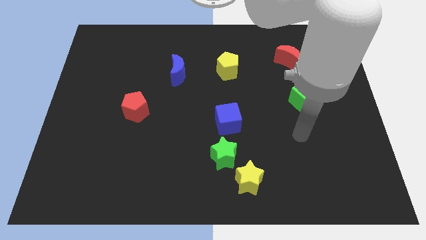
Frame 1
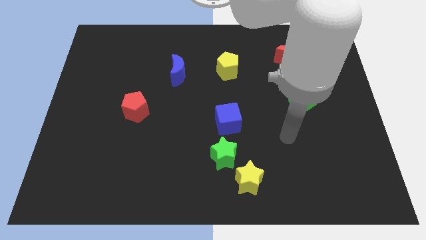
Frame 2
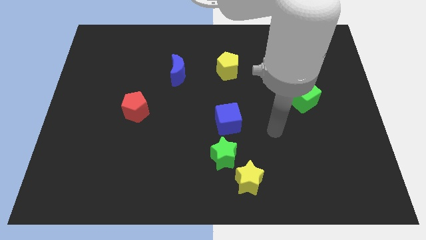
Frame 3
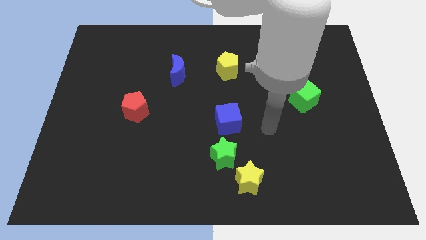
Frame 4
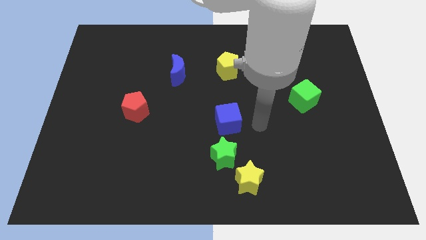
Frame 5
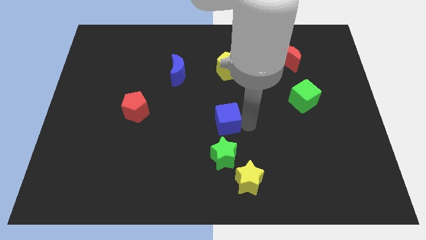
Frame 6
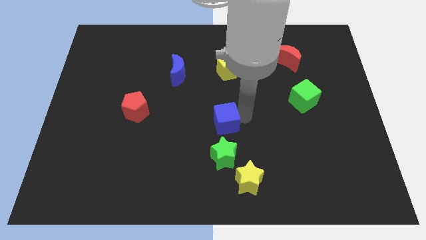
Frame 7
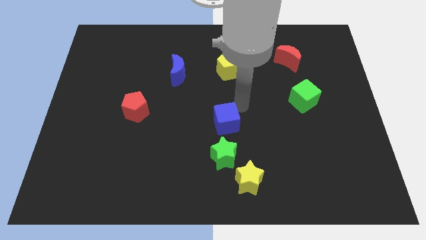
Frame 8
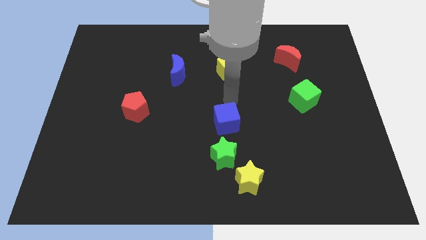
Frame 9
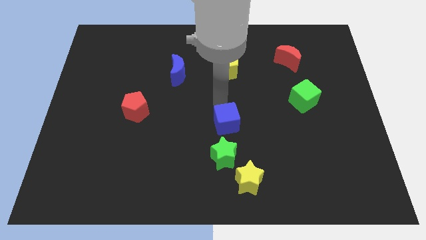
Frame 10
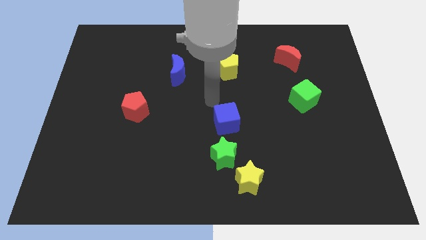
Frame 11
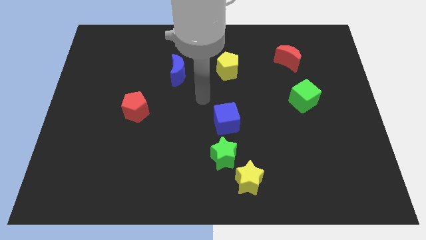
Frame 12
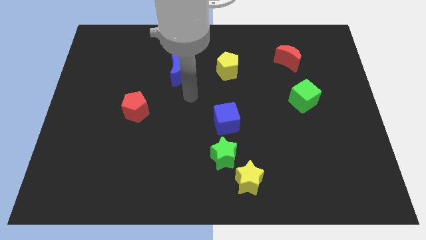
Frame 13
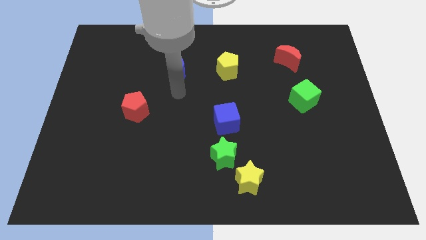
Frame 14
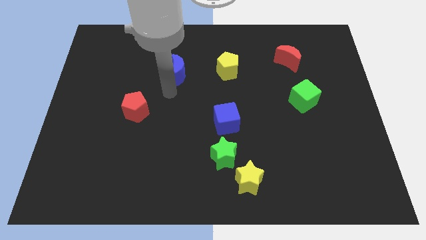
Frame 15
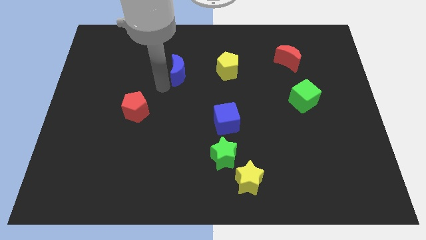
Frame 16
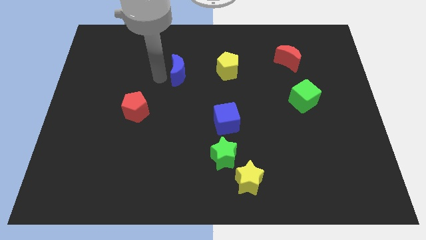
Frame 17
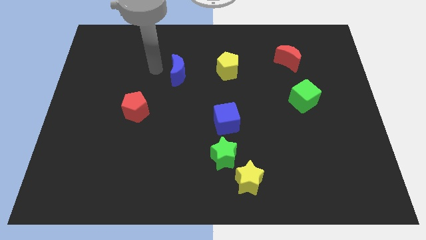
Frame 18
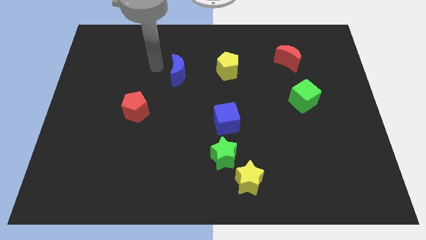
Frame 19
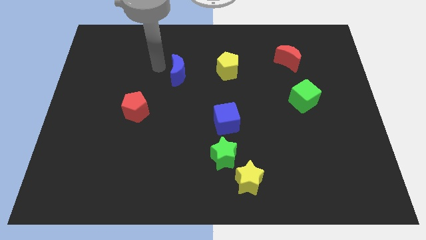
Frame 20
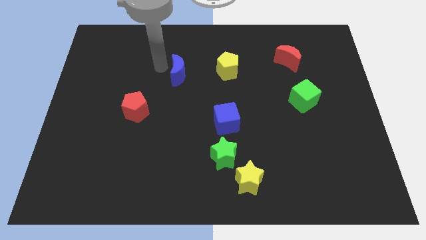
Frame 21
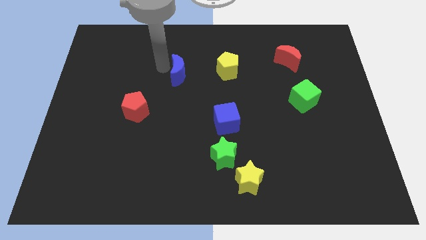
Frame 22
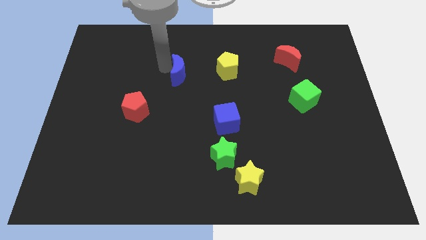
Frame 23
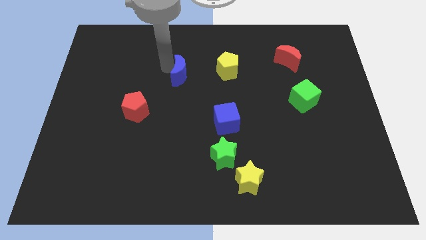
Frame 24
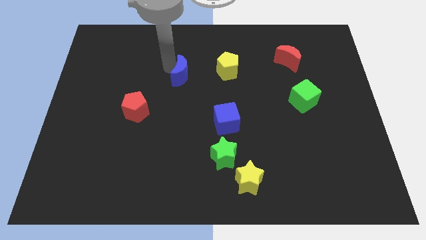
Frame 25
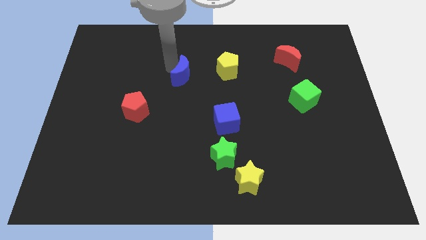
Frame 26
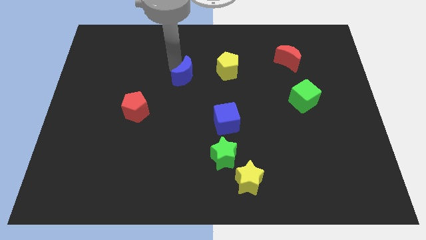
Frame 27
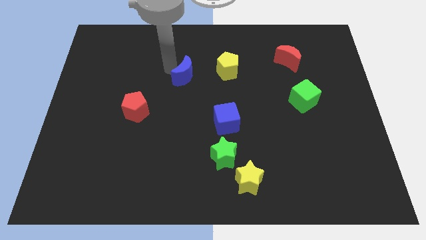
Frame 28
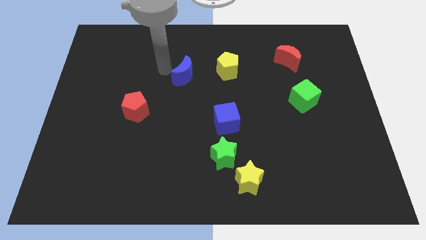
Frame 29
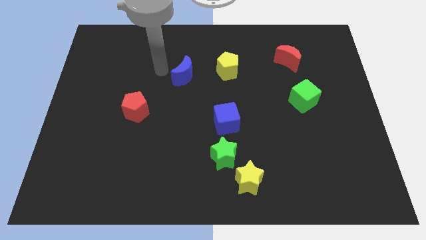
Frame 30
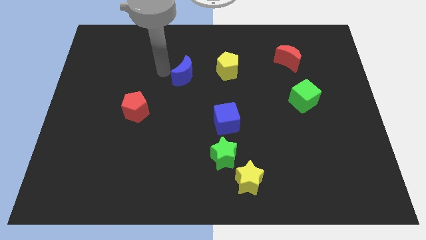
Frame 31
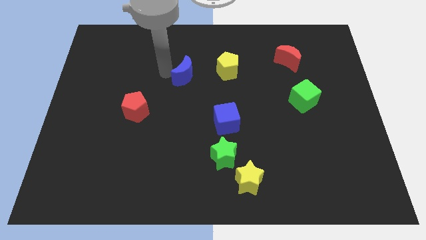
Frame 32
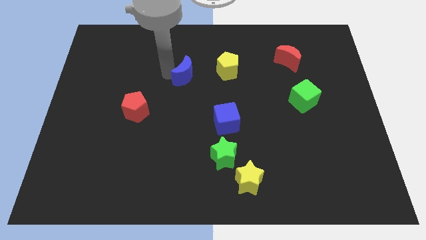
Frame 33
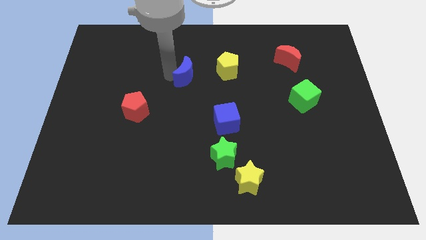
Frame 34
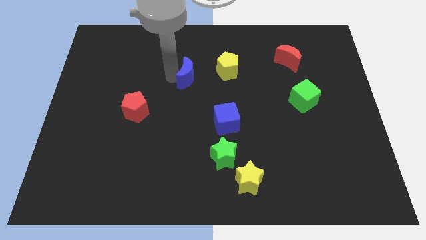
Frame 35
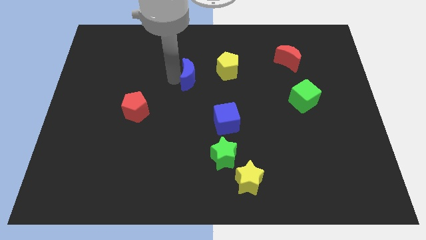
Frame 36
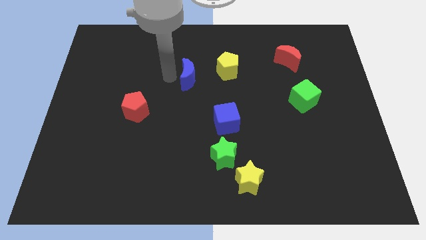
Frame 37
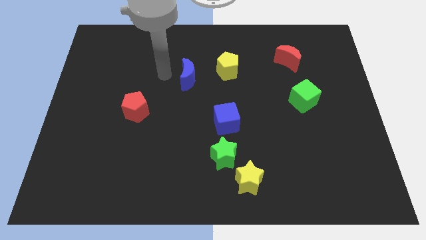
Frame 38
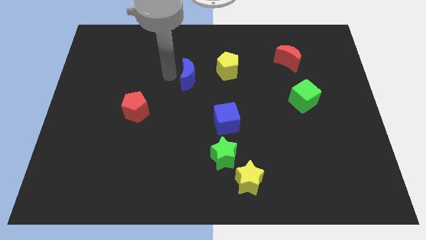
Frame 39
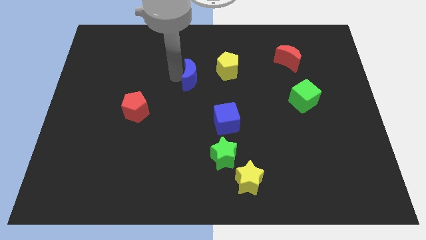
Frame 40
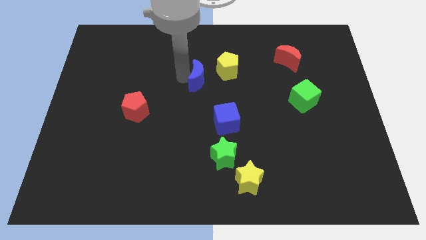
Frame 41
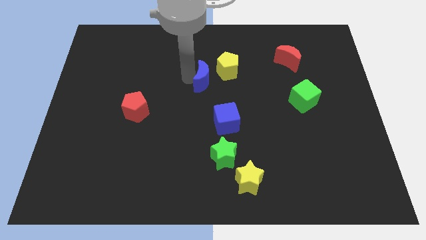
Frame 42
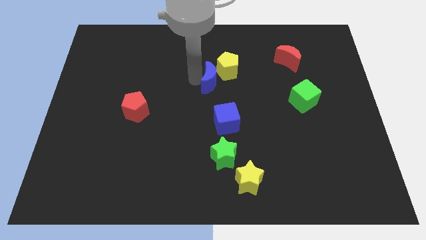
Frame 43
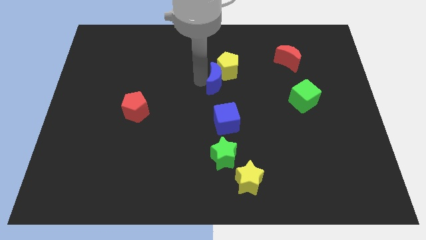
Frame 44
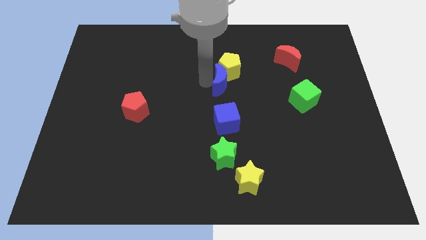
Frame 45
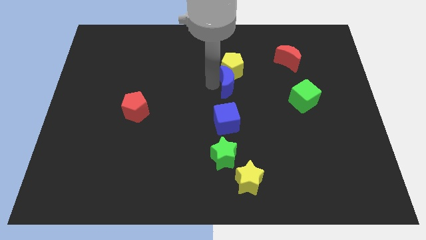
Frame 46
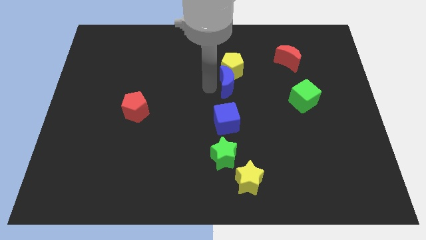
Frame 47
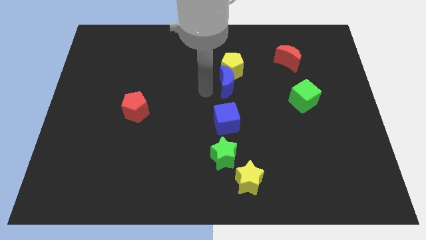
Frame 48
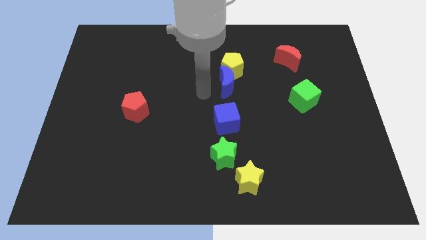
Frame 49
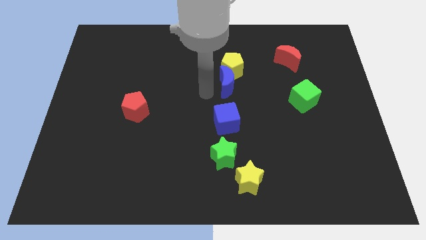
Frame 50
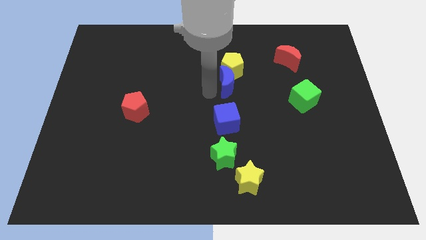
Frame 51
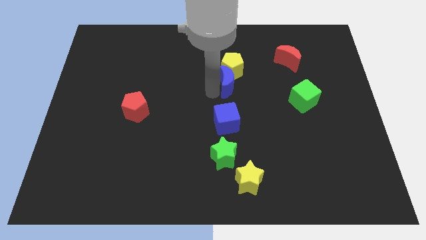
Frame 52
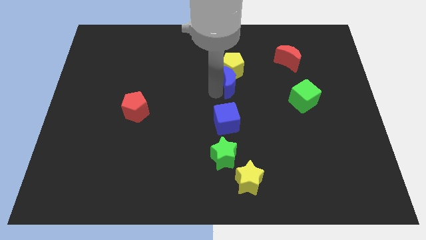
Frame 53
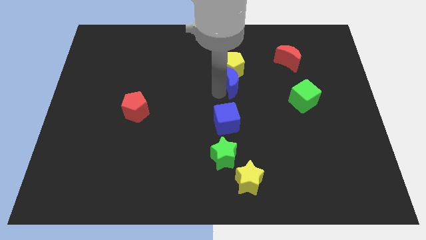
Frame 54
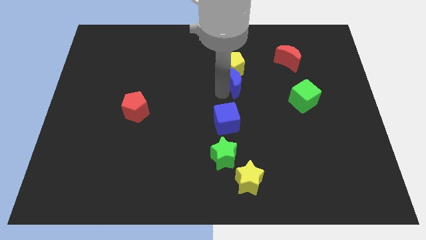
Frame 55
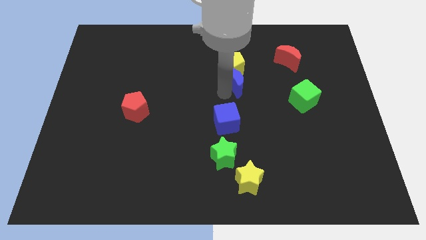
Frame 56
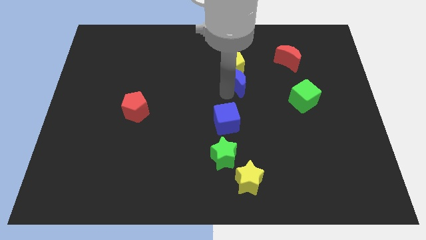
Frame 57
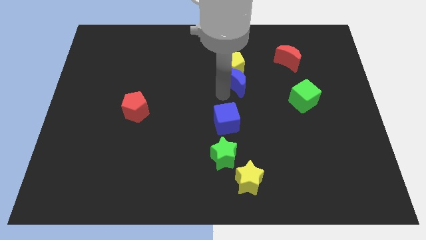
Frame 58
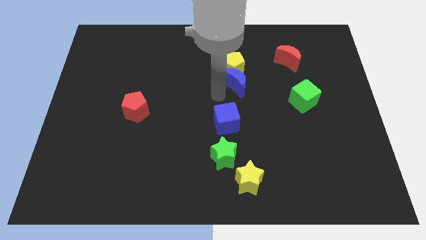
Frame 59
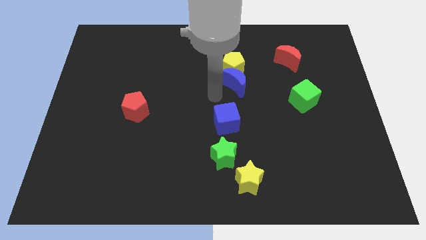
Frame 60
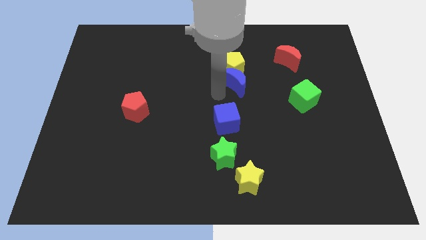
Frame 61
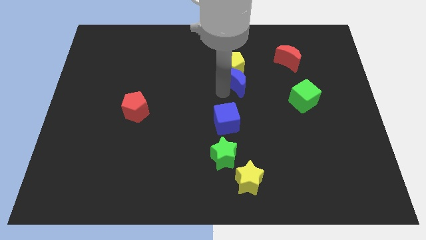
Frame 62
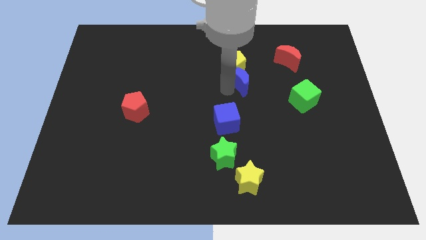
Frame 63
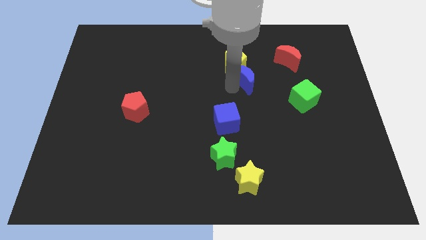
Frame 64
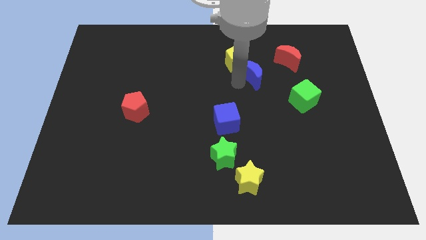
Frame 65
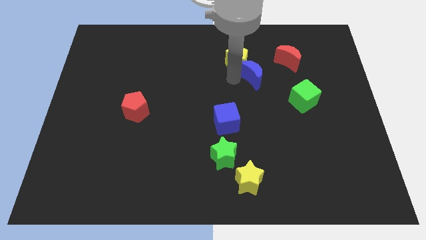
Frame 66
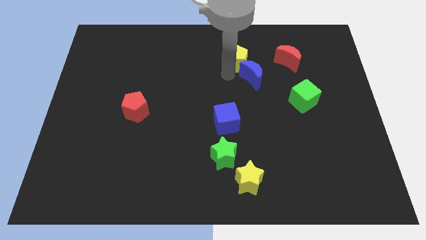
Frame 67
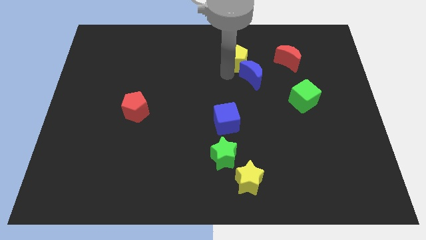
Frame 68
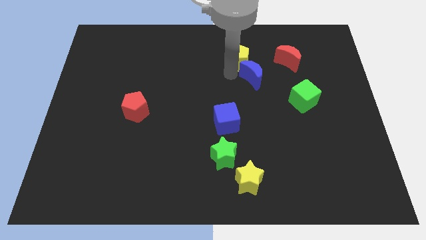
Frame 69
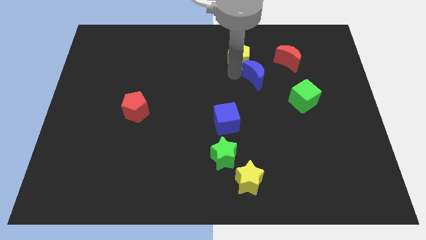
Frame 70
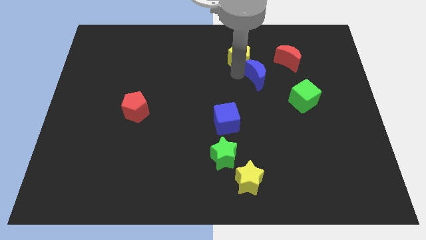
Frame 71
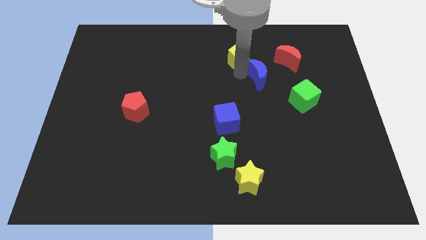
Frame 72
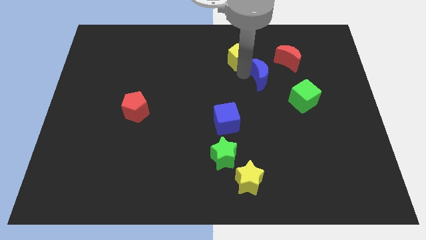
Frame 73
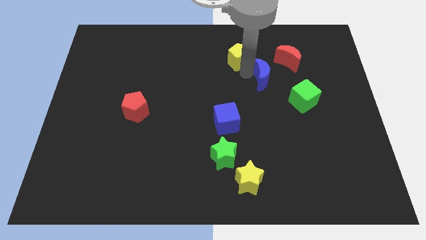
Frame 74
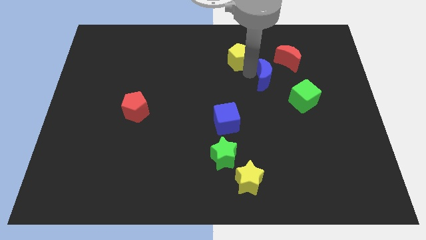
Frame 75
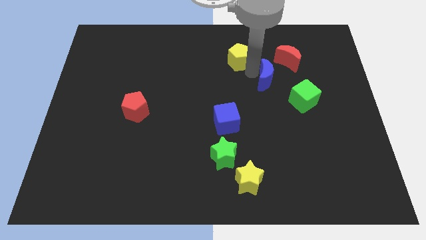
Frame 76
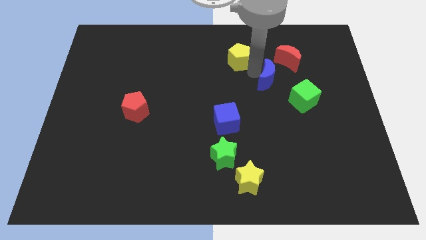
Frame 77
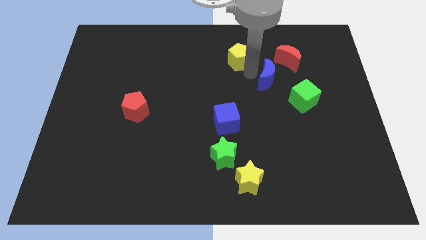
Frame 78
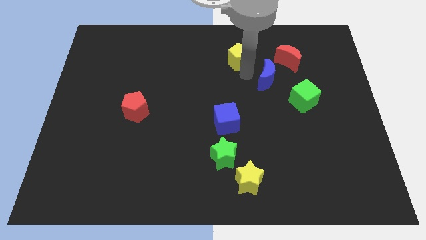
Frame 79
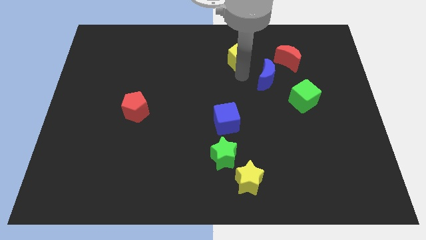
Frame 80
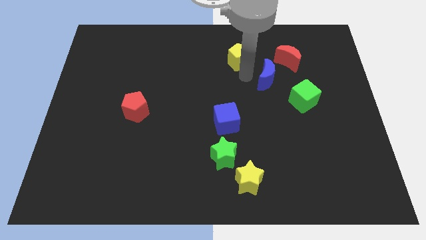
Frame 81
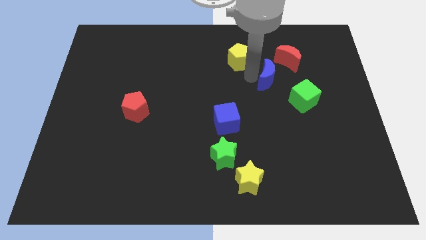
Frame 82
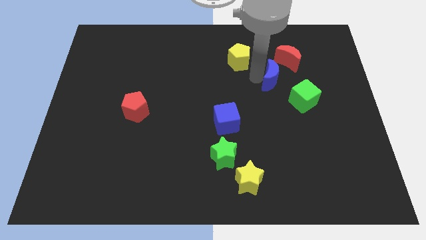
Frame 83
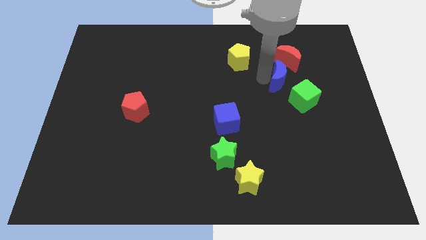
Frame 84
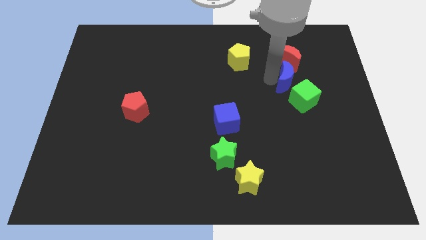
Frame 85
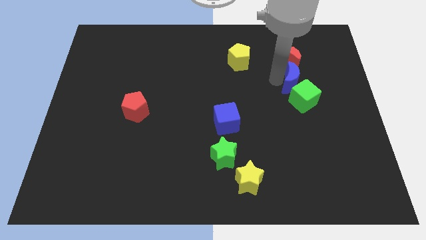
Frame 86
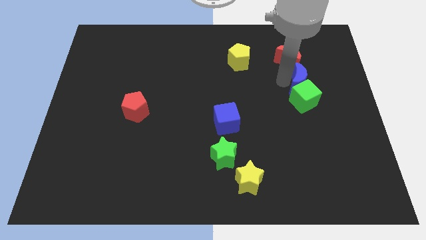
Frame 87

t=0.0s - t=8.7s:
move the blue moon diagonally up and to the right of the green cube
